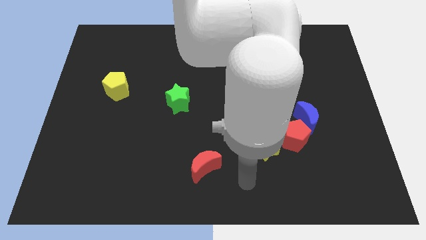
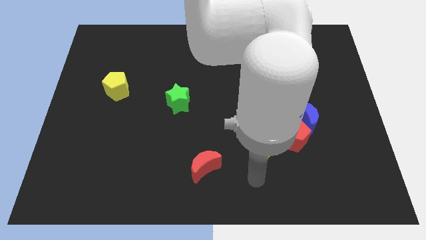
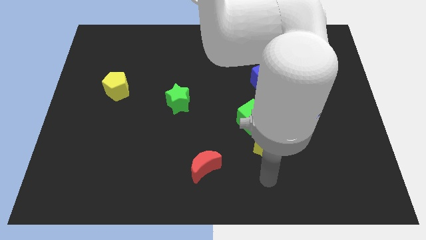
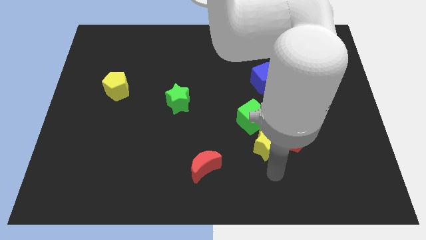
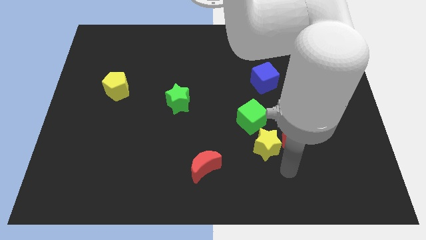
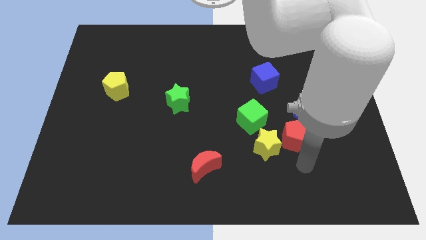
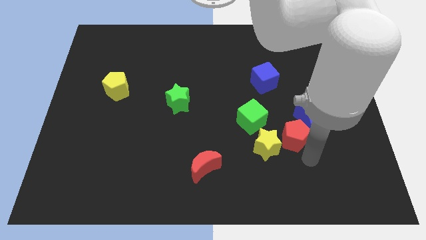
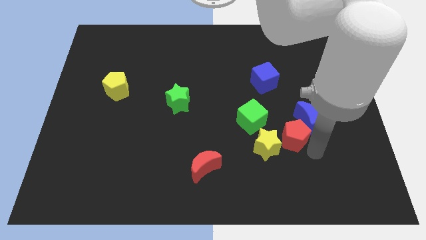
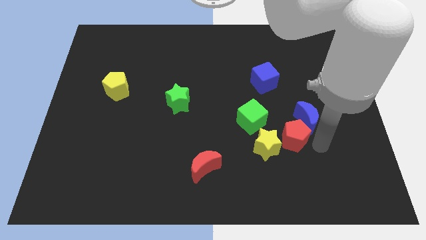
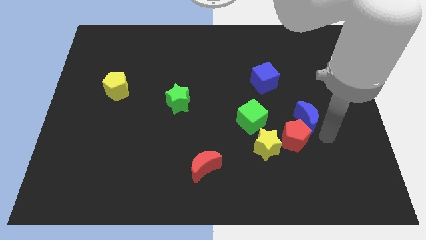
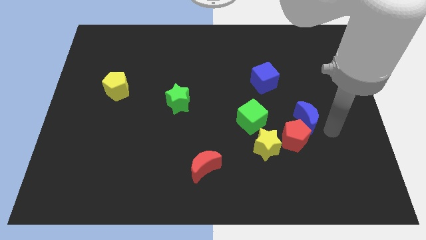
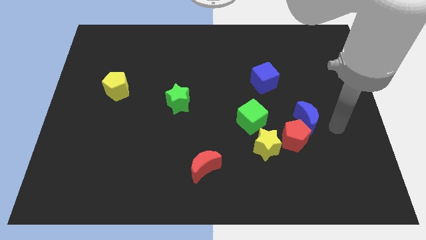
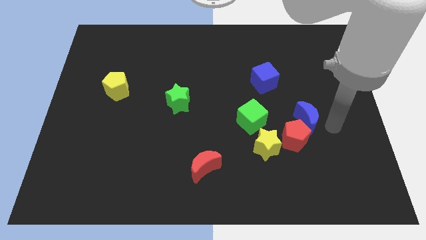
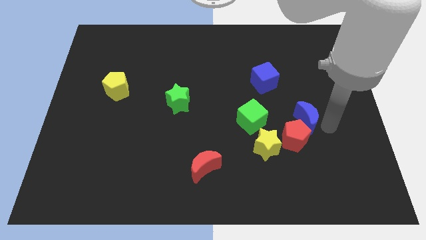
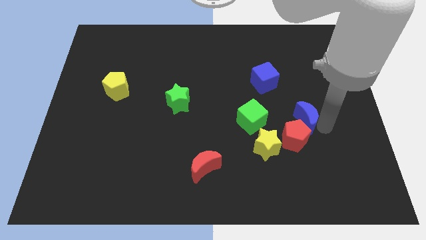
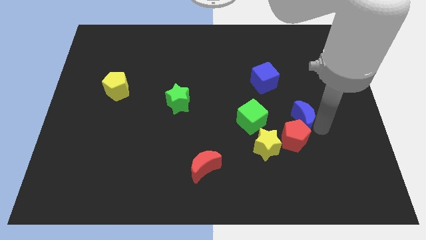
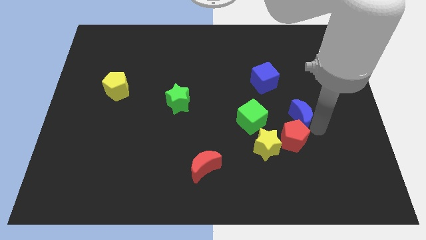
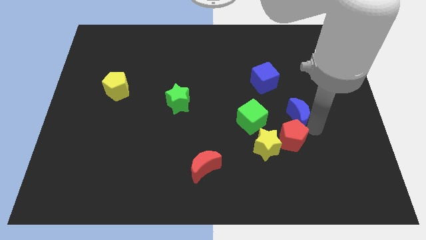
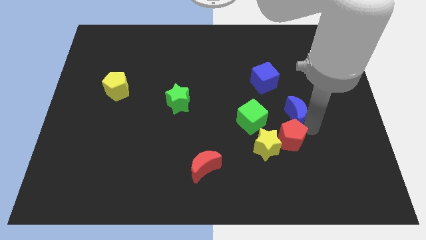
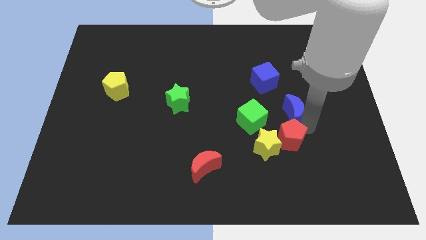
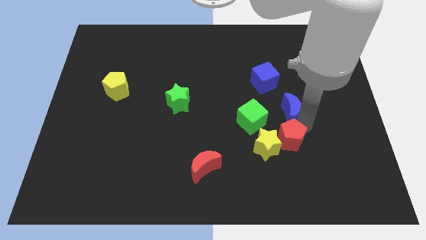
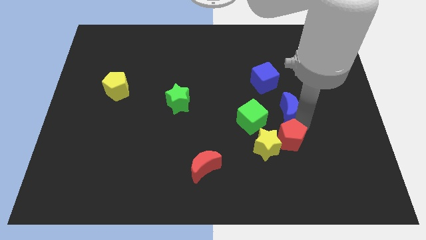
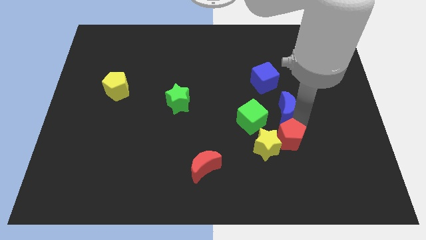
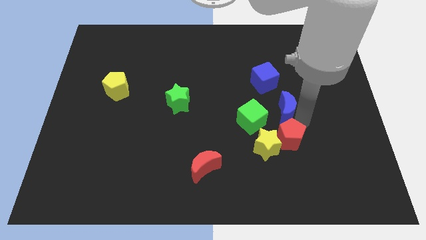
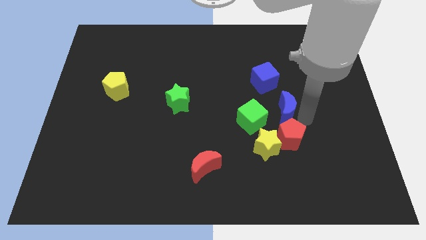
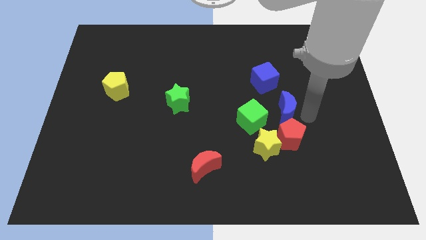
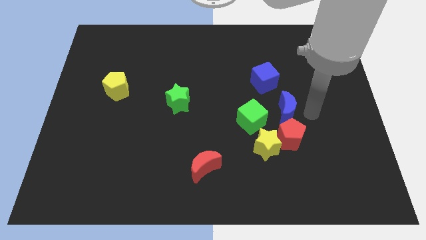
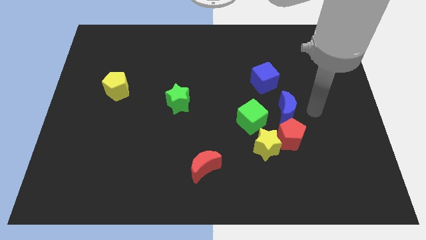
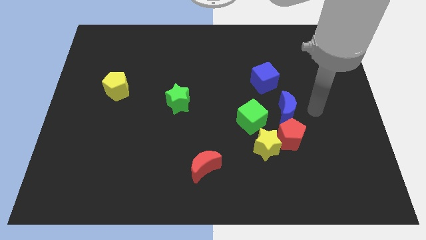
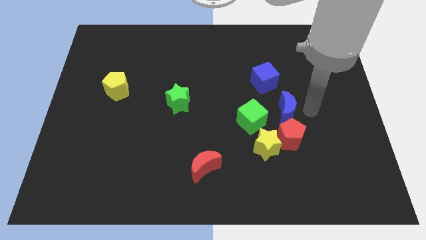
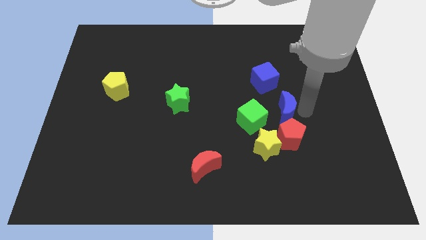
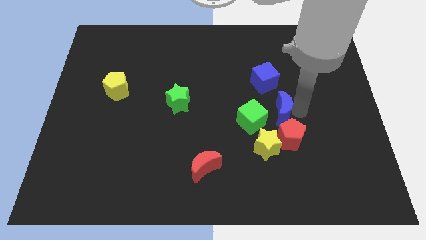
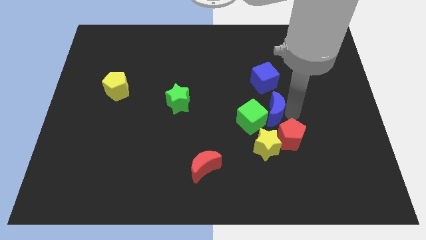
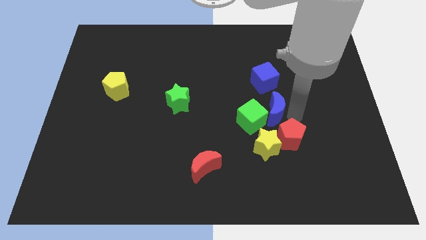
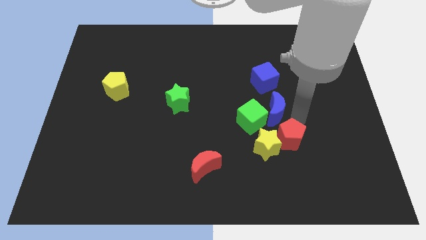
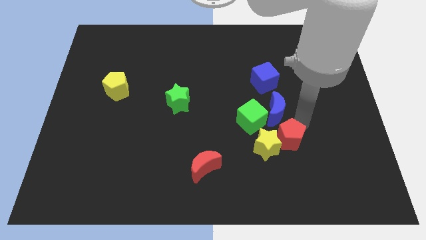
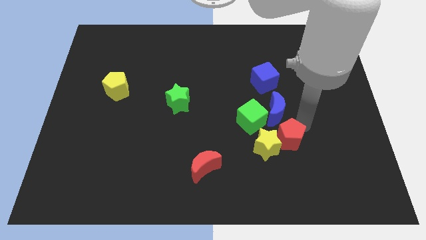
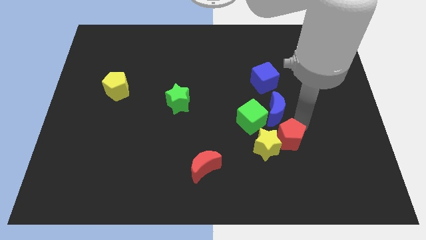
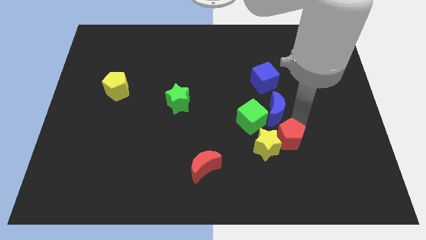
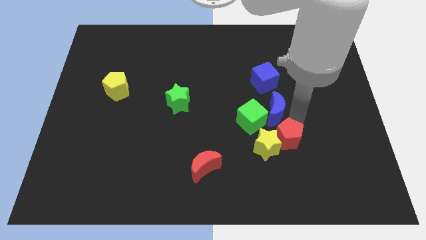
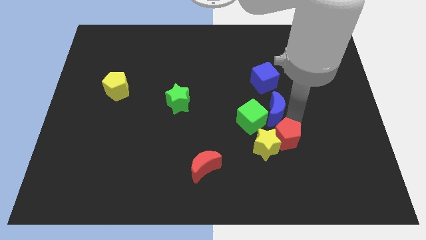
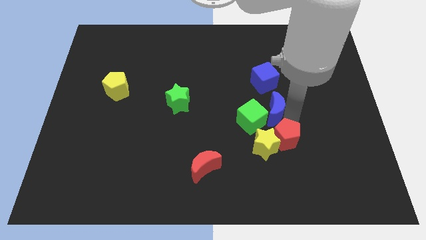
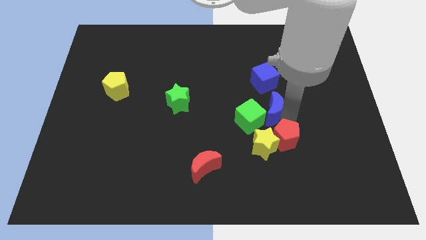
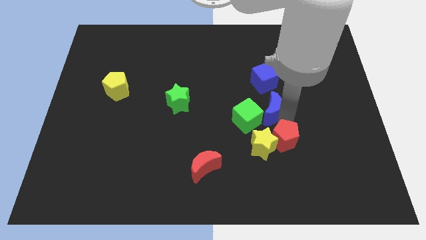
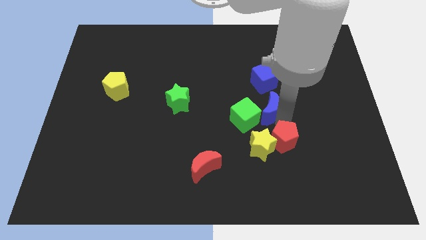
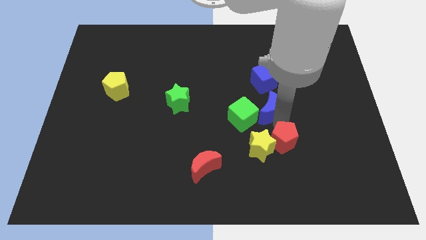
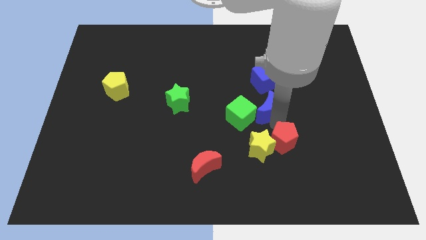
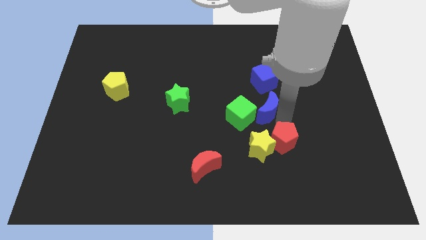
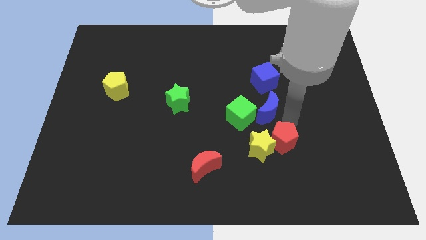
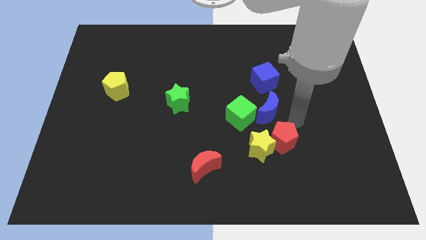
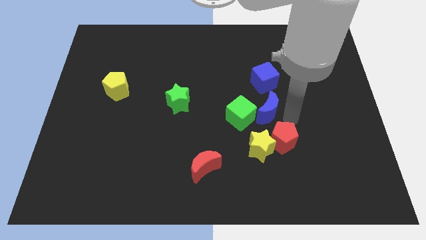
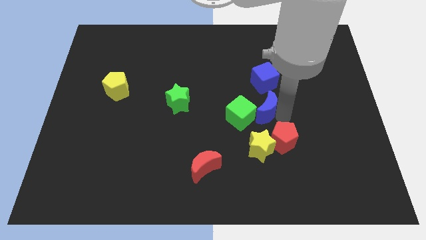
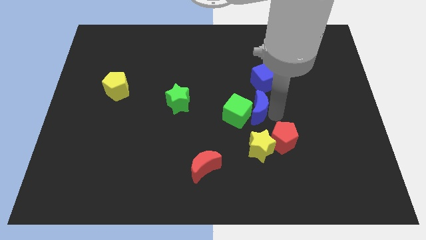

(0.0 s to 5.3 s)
push the blue moon to the center of the board

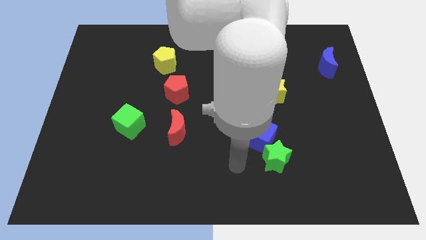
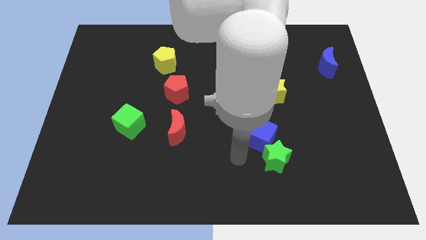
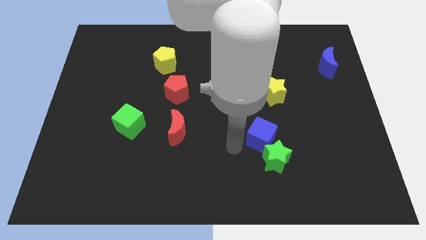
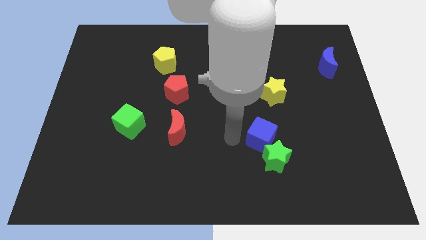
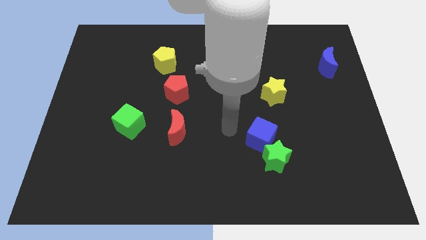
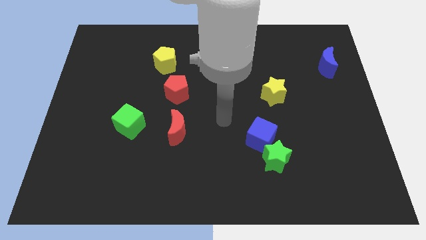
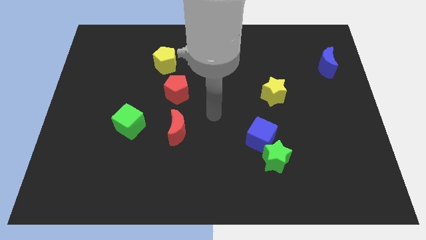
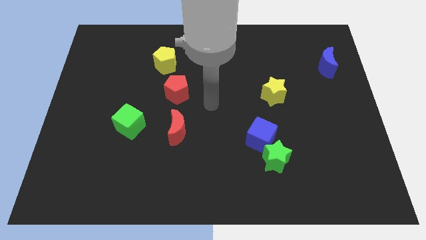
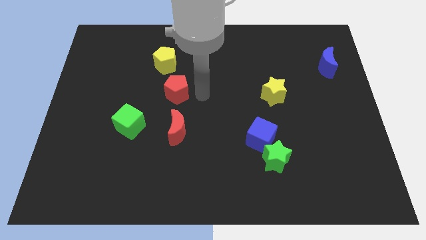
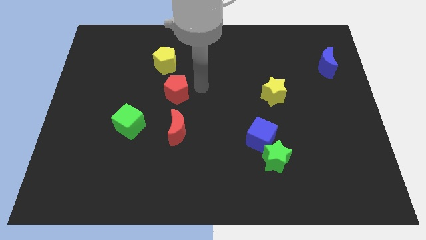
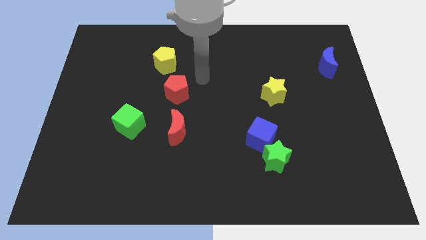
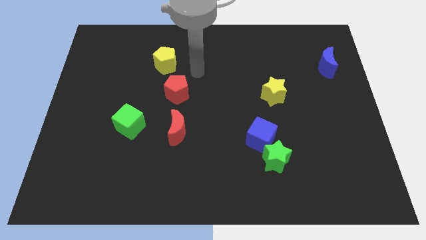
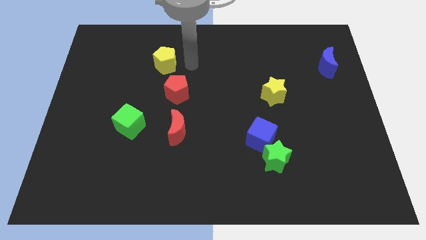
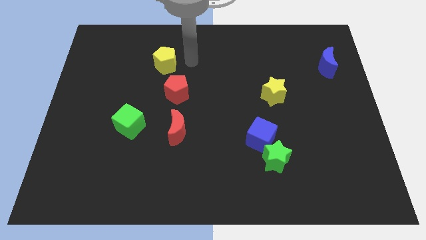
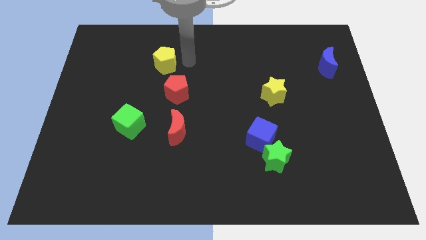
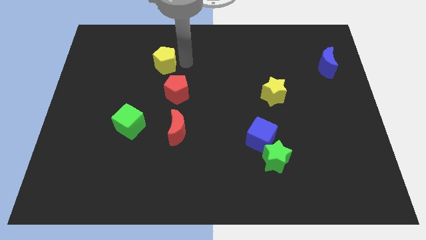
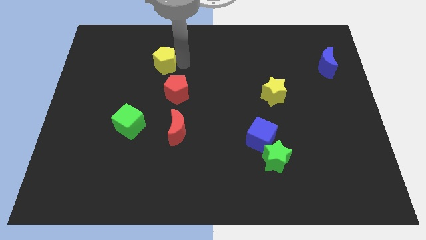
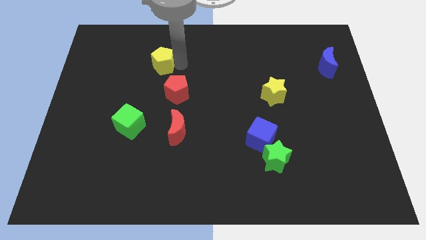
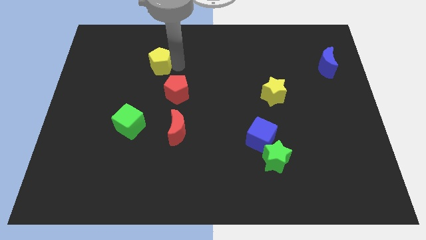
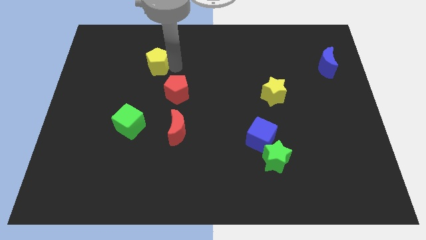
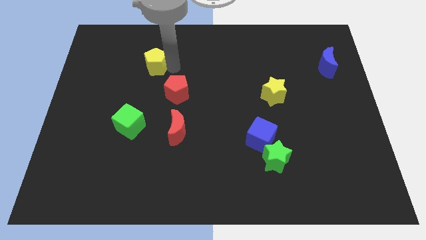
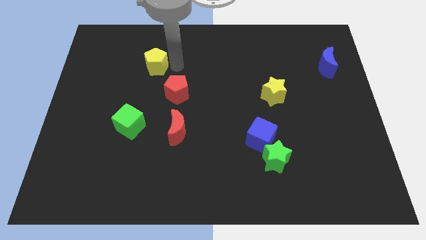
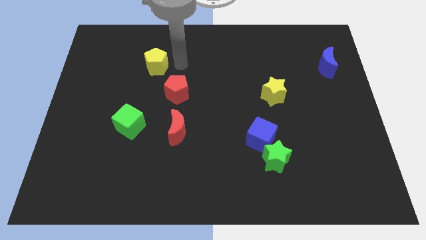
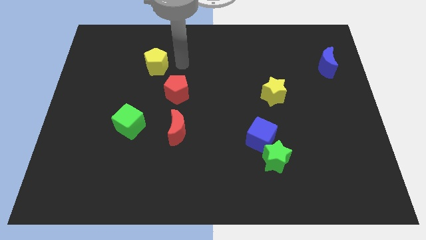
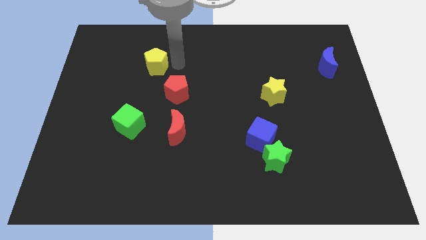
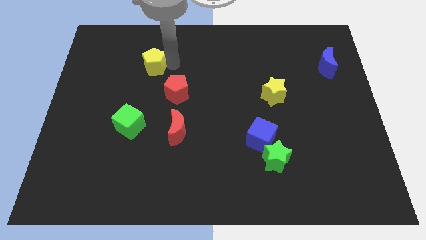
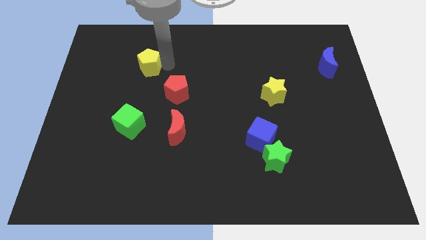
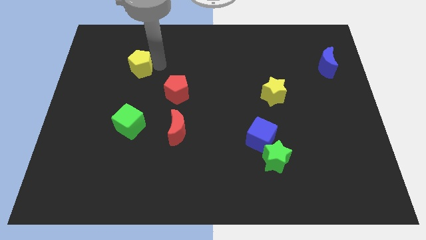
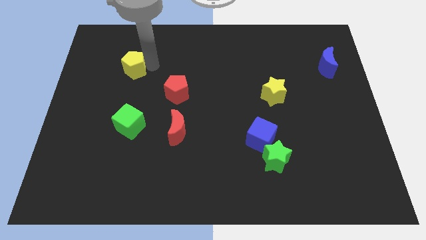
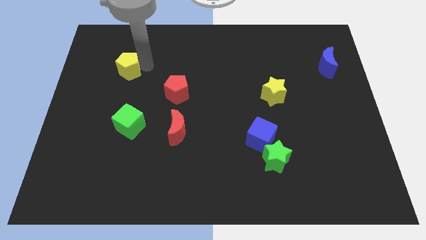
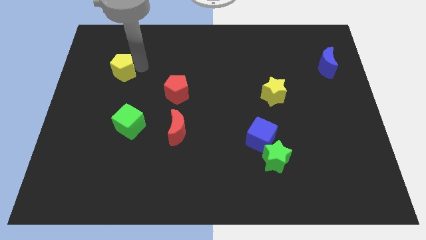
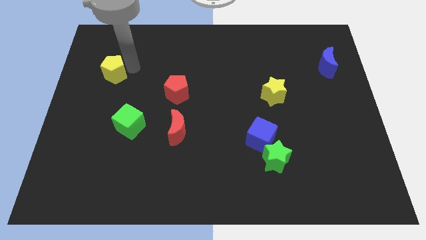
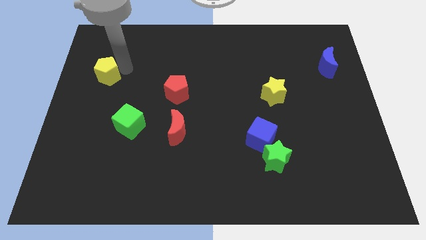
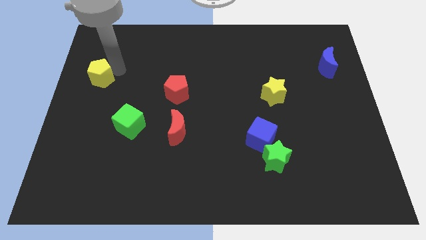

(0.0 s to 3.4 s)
move the yellow pentagon to the left side
